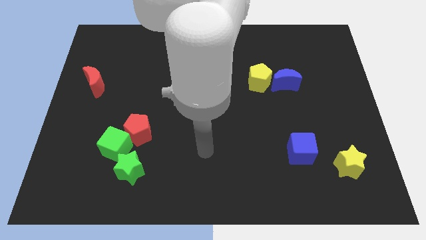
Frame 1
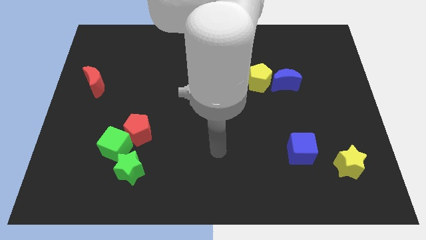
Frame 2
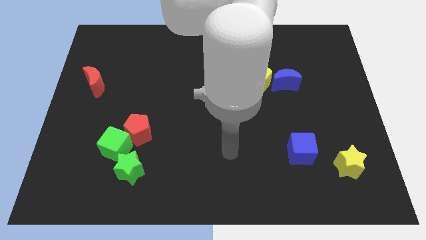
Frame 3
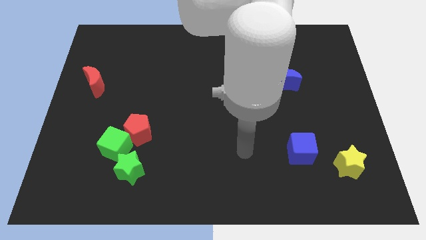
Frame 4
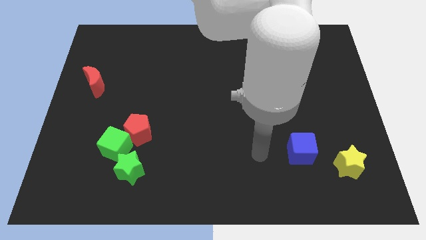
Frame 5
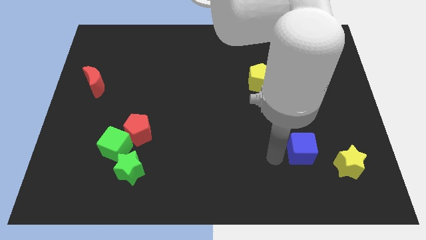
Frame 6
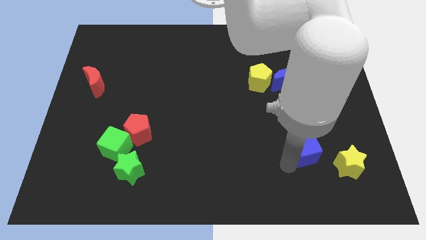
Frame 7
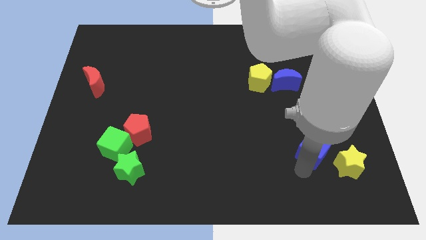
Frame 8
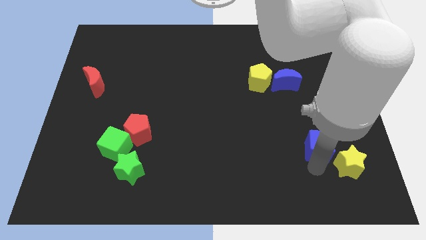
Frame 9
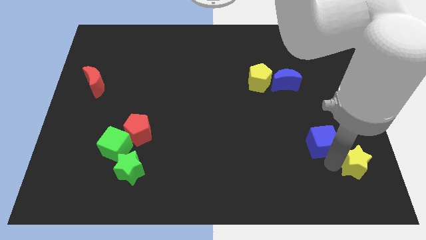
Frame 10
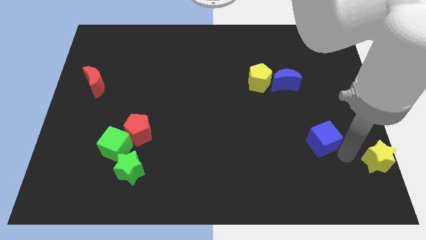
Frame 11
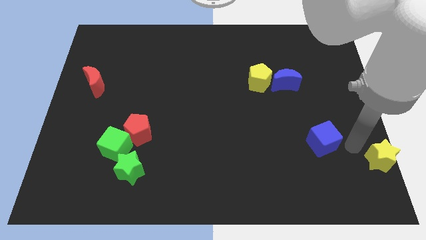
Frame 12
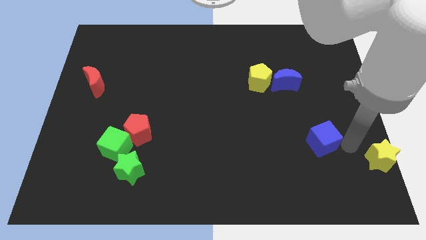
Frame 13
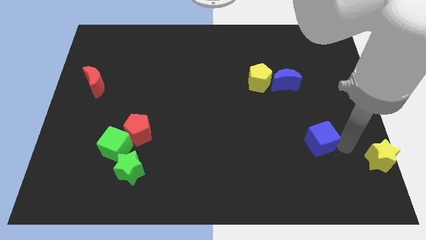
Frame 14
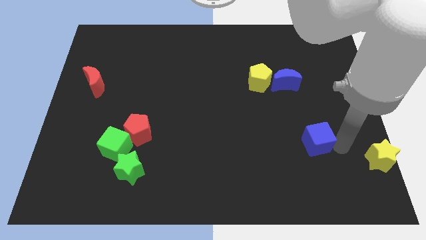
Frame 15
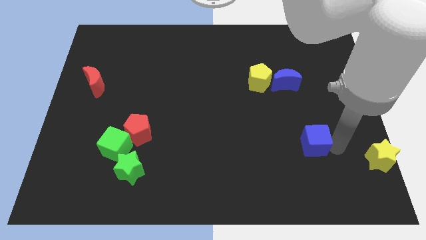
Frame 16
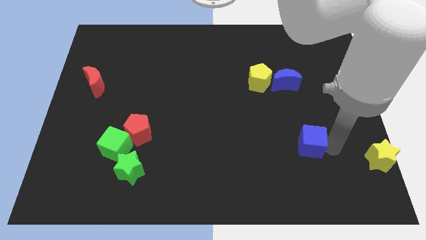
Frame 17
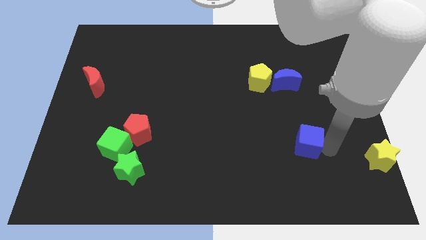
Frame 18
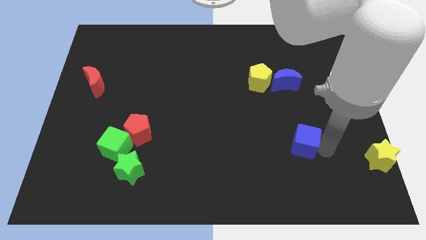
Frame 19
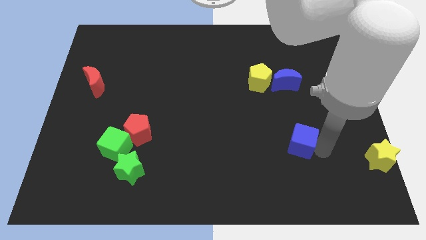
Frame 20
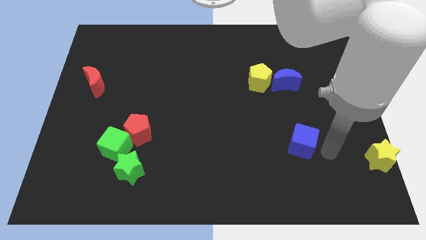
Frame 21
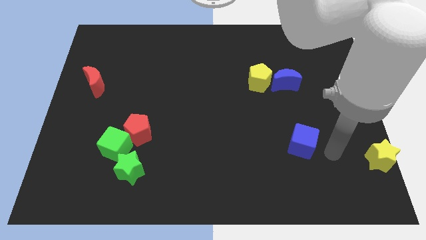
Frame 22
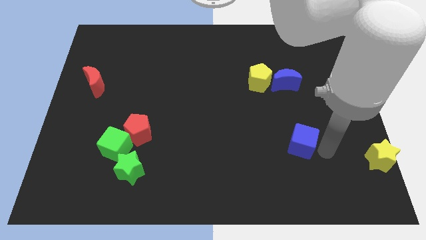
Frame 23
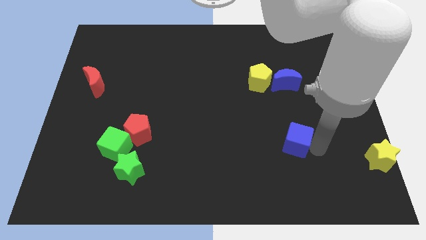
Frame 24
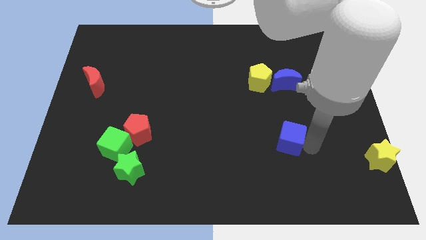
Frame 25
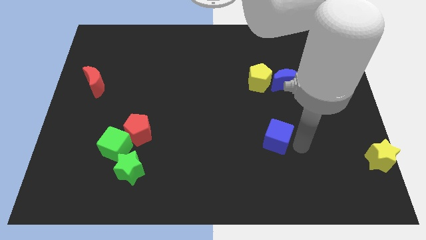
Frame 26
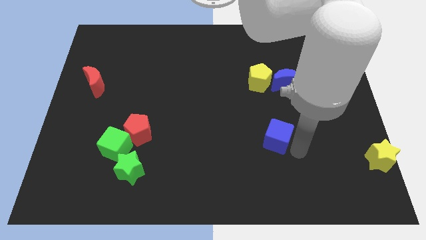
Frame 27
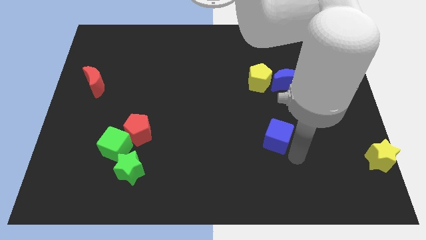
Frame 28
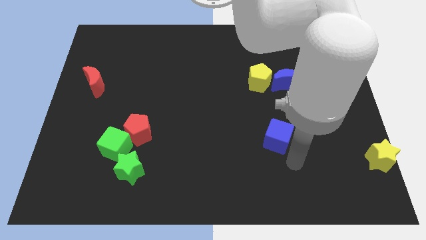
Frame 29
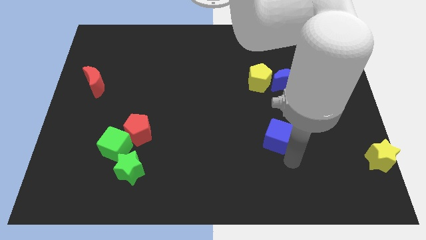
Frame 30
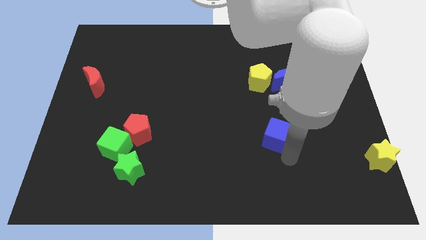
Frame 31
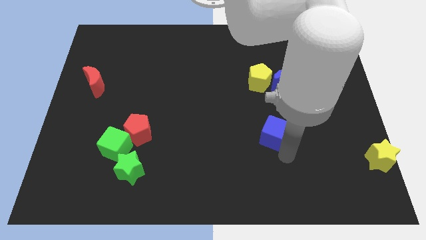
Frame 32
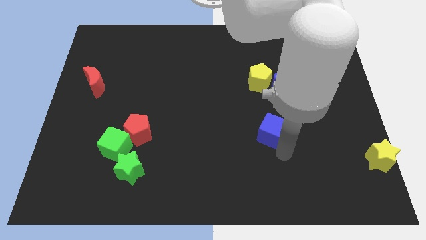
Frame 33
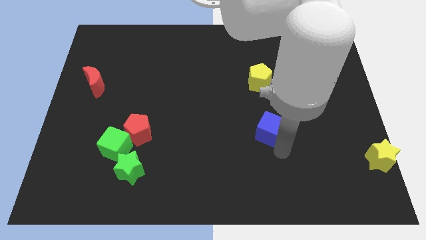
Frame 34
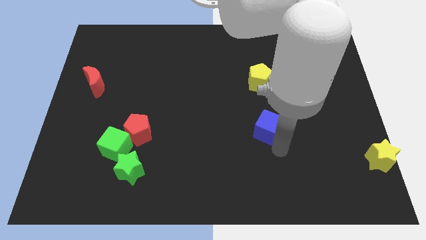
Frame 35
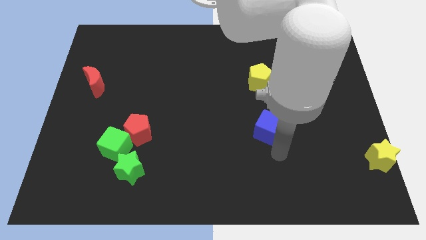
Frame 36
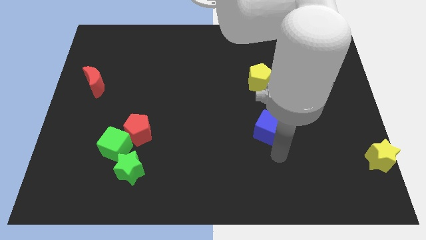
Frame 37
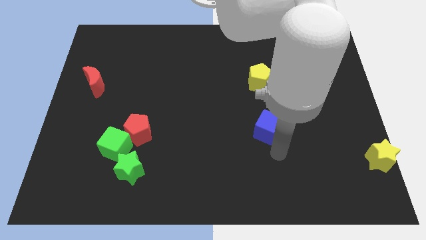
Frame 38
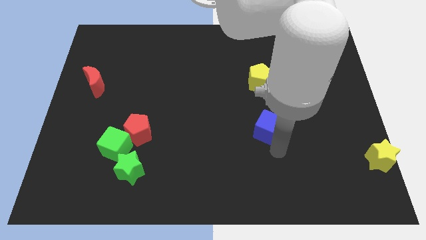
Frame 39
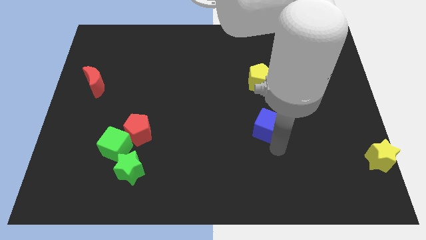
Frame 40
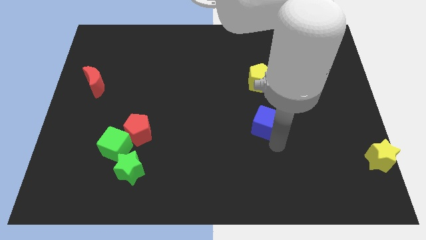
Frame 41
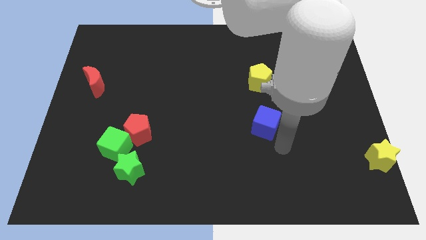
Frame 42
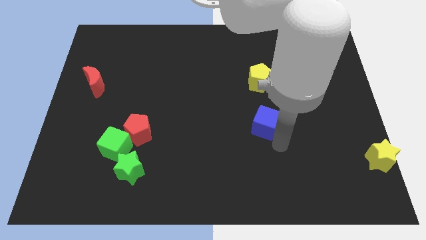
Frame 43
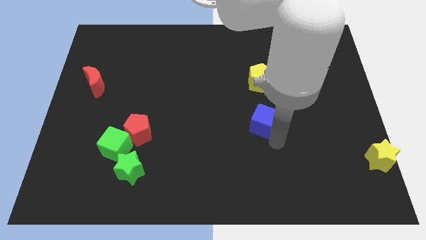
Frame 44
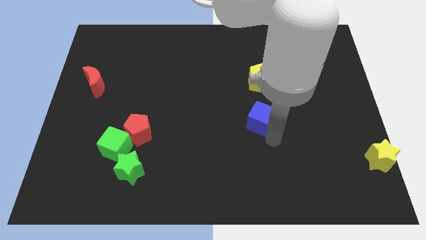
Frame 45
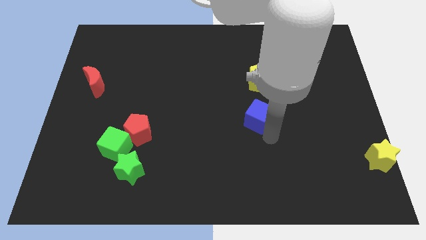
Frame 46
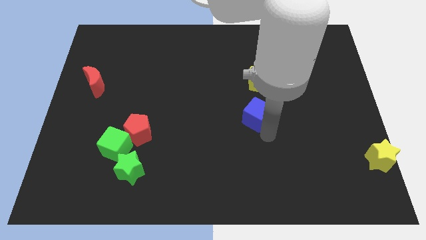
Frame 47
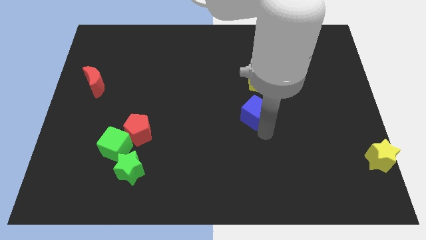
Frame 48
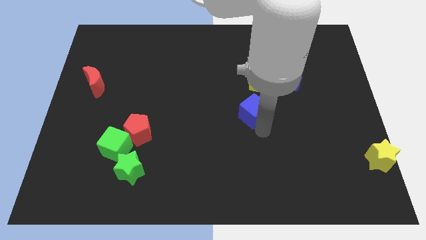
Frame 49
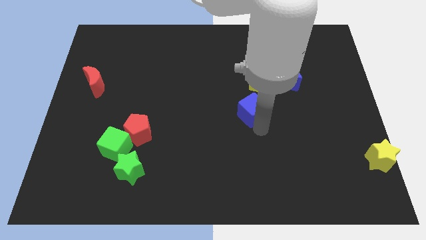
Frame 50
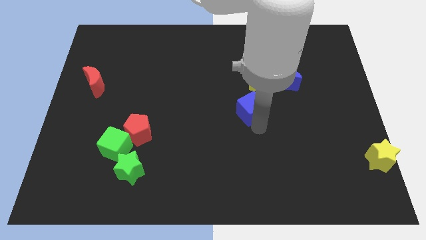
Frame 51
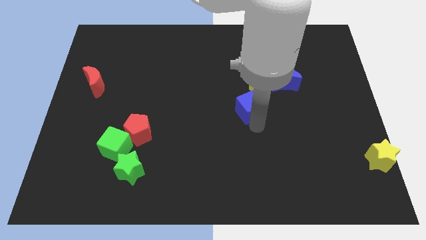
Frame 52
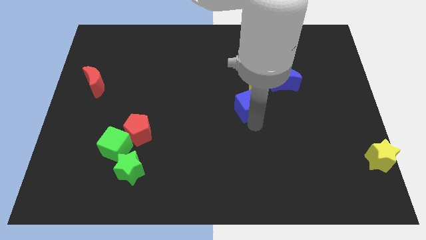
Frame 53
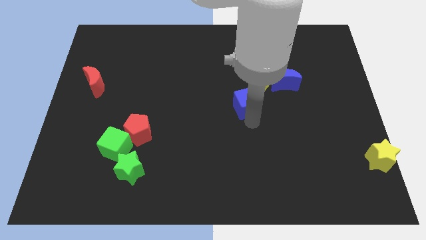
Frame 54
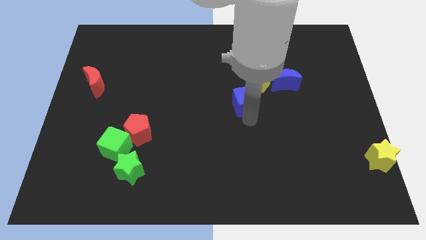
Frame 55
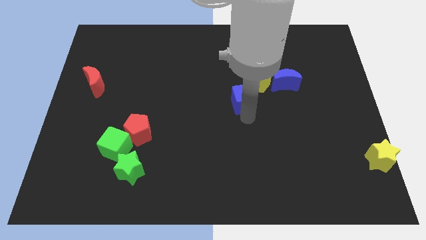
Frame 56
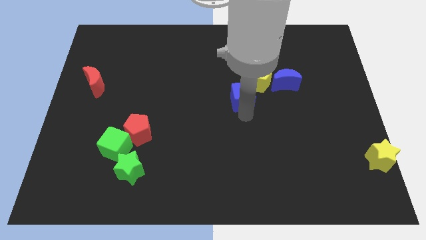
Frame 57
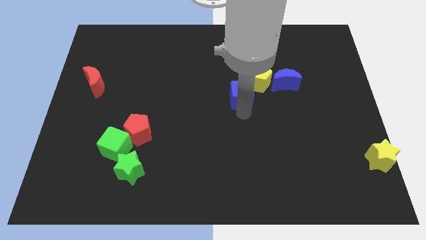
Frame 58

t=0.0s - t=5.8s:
move the blue cube to the left side of the blue moon

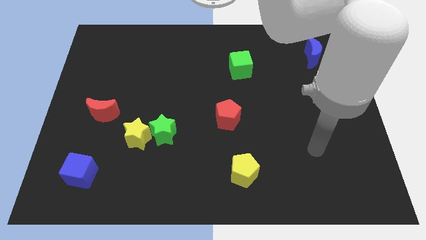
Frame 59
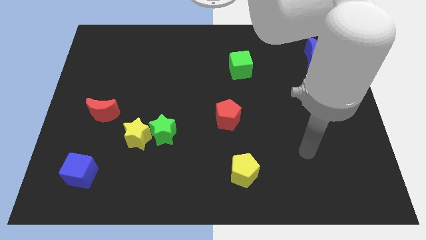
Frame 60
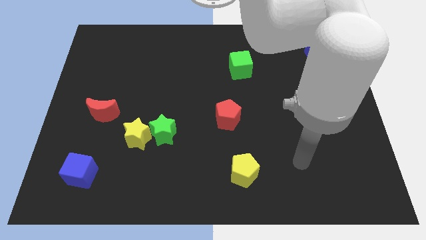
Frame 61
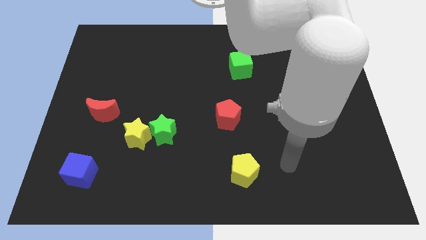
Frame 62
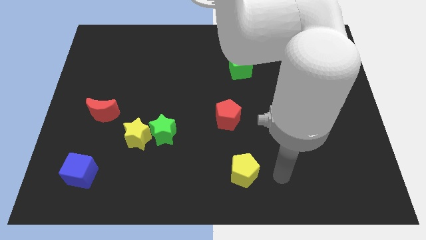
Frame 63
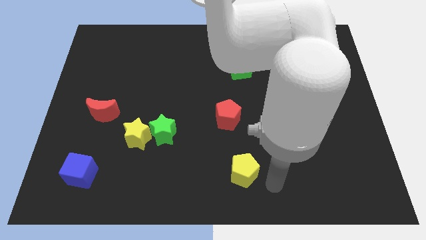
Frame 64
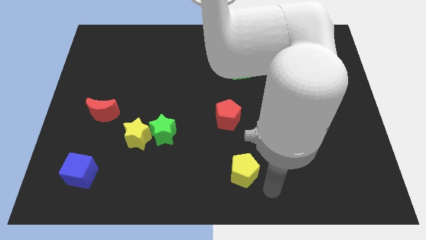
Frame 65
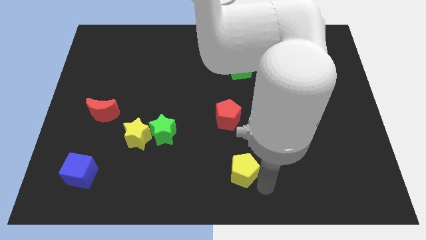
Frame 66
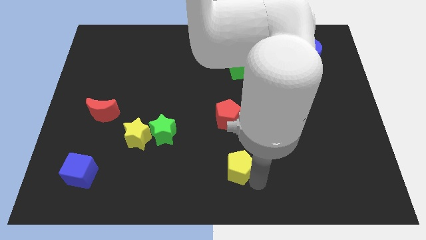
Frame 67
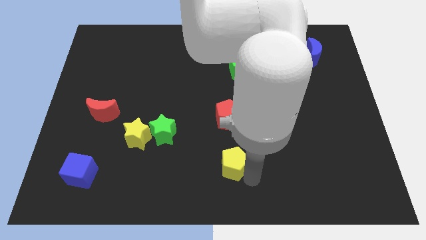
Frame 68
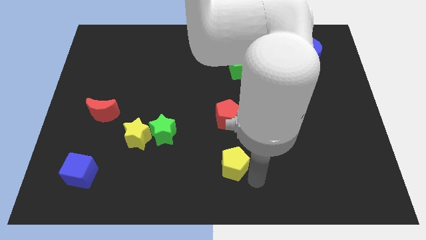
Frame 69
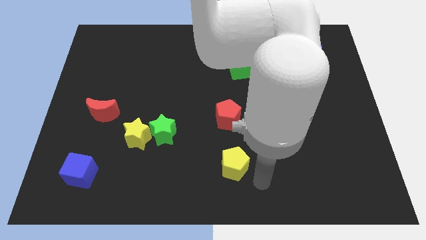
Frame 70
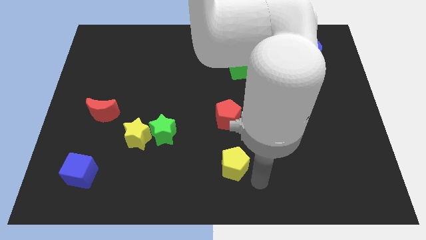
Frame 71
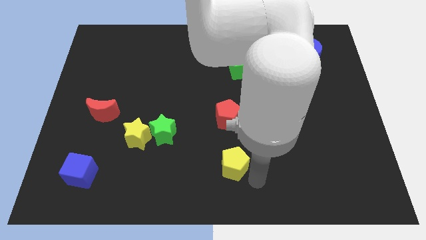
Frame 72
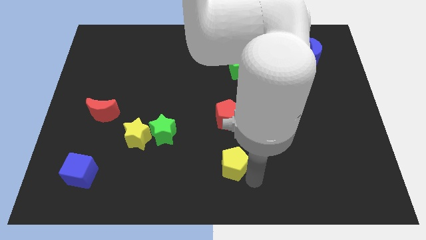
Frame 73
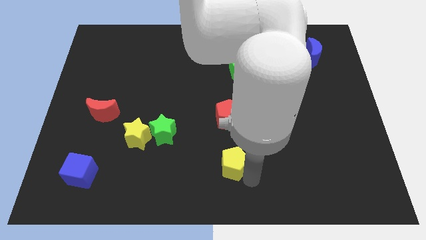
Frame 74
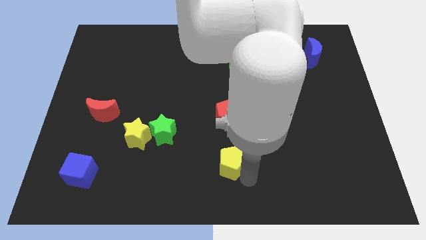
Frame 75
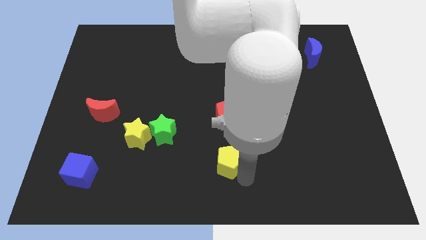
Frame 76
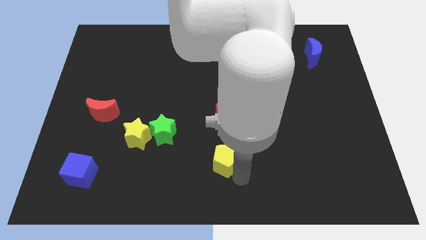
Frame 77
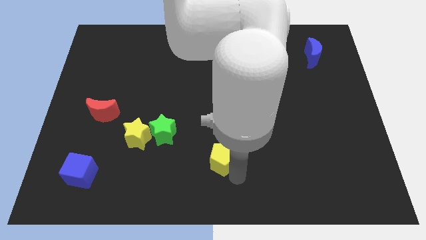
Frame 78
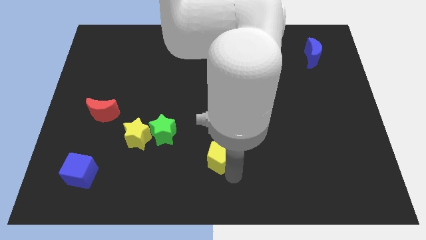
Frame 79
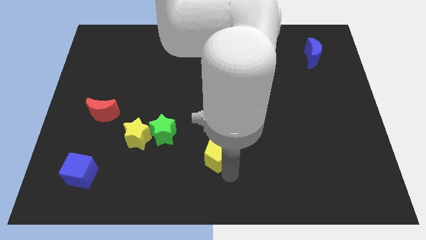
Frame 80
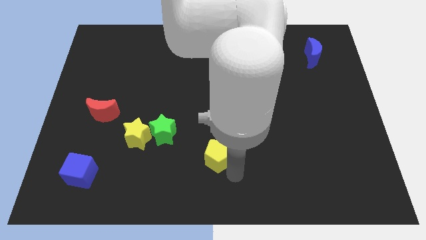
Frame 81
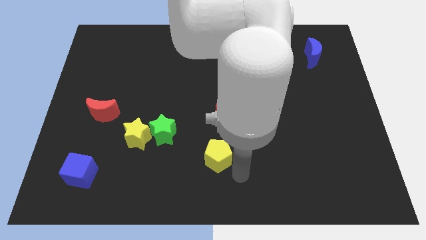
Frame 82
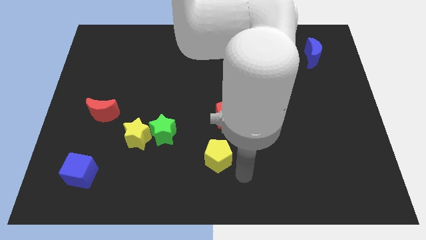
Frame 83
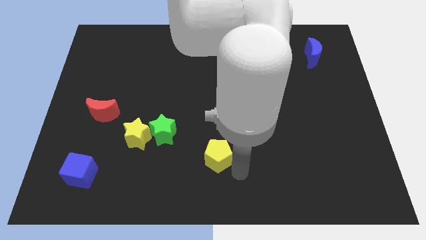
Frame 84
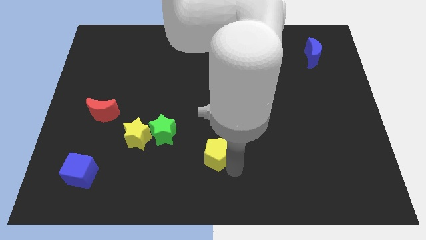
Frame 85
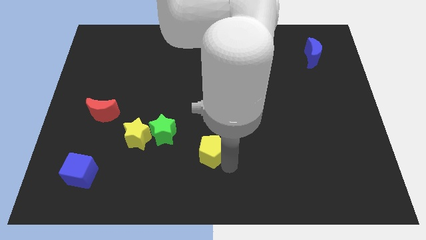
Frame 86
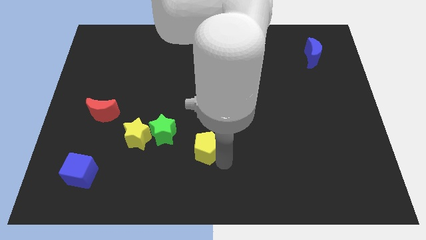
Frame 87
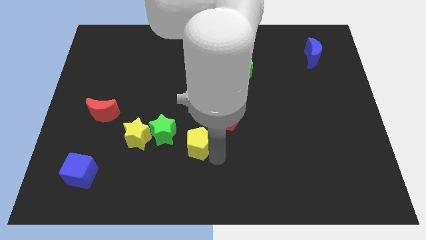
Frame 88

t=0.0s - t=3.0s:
move the yellow pentagon to the right of the yellow star
